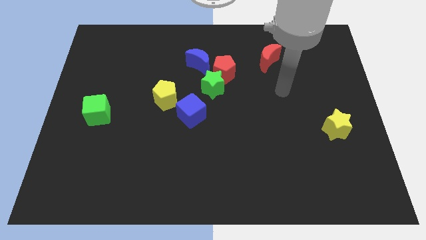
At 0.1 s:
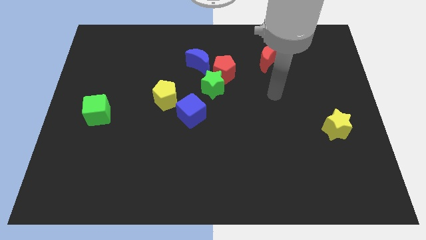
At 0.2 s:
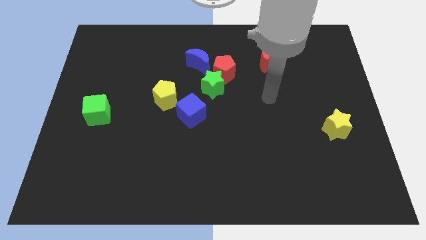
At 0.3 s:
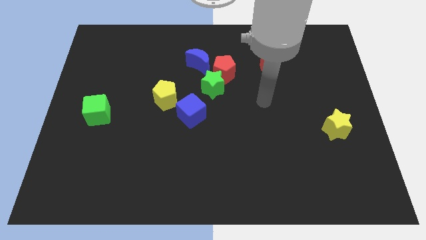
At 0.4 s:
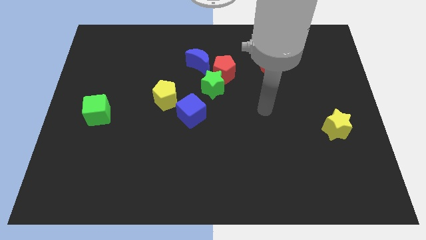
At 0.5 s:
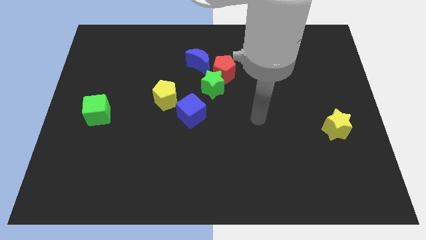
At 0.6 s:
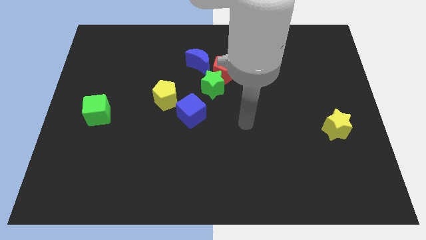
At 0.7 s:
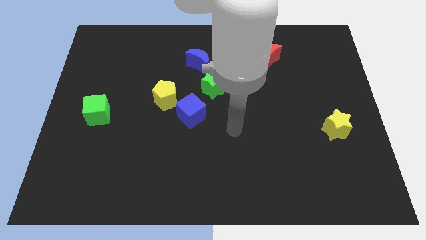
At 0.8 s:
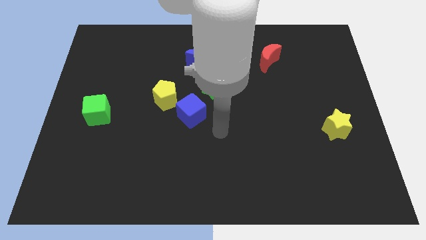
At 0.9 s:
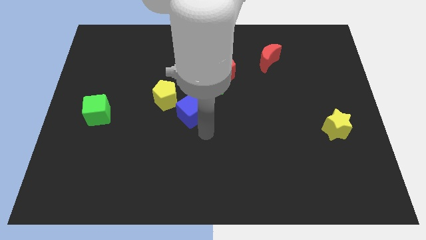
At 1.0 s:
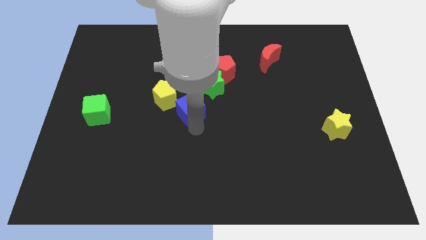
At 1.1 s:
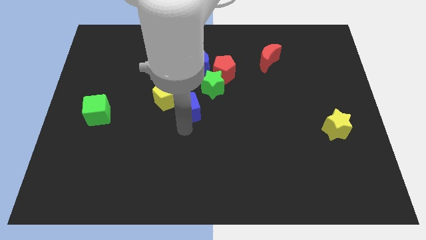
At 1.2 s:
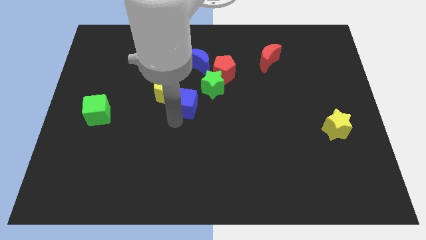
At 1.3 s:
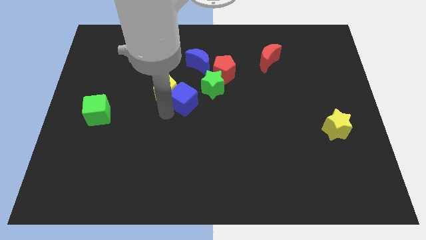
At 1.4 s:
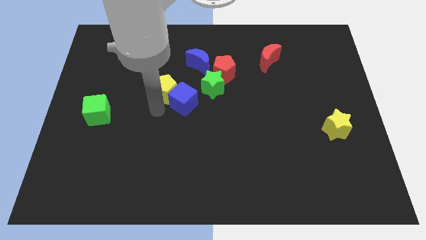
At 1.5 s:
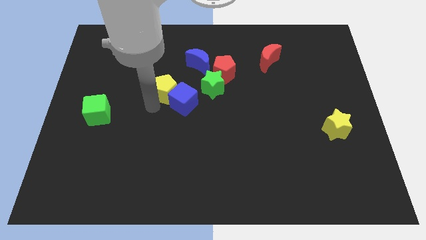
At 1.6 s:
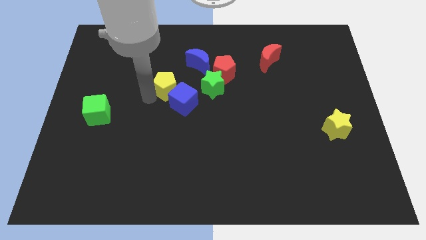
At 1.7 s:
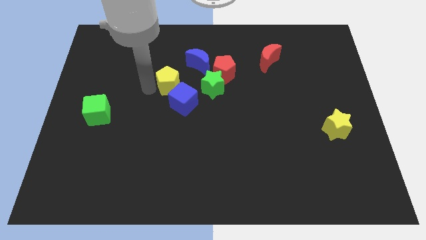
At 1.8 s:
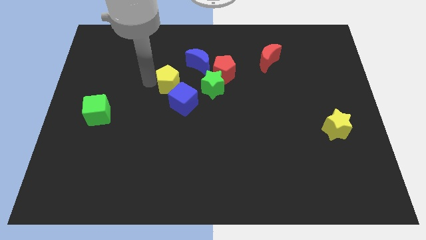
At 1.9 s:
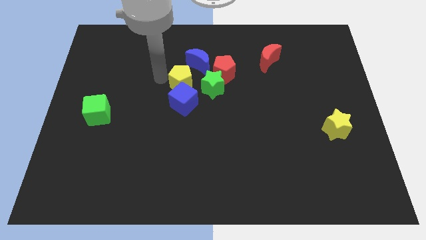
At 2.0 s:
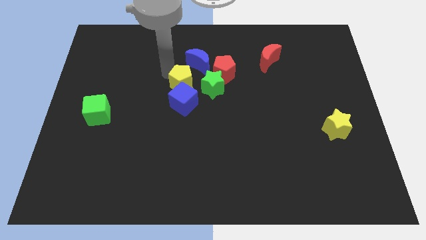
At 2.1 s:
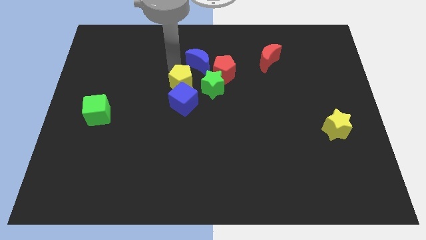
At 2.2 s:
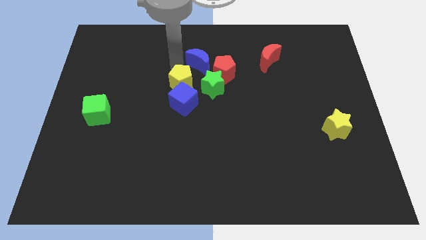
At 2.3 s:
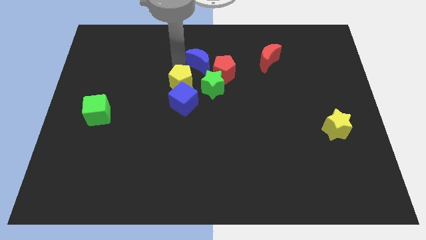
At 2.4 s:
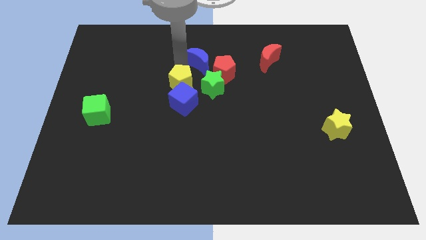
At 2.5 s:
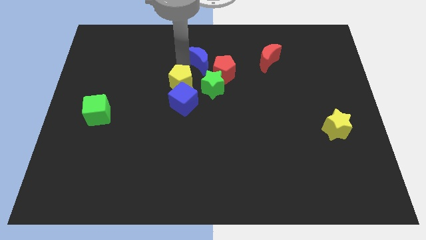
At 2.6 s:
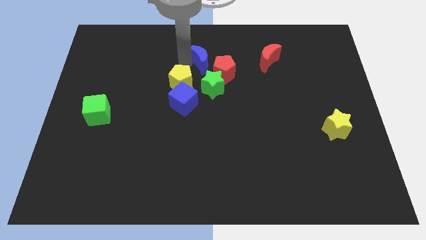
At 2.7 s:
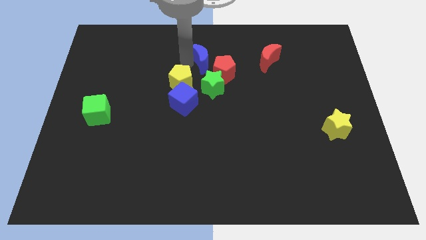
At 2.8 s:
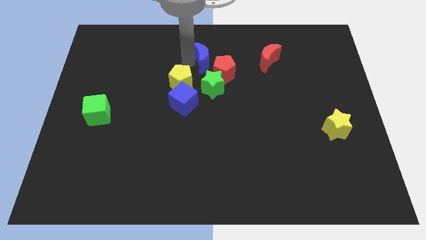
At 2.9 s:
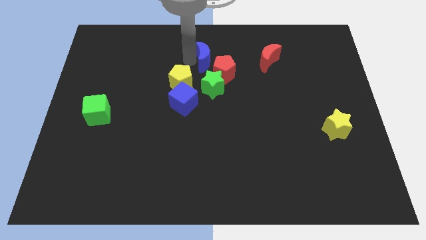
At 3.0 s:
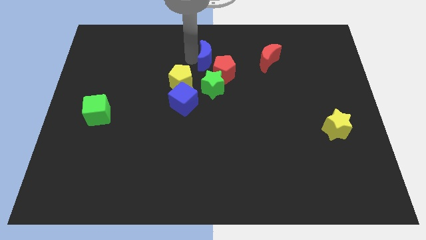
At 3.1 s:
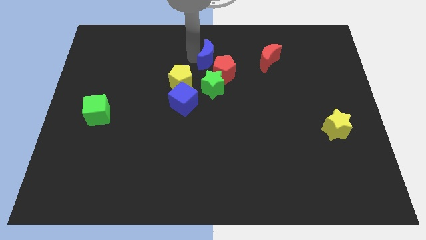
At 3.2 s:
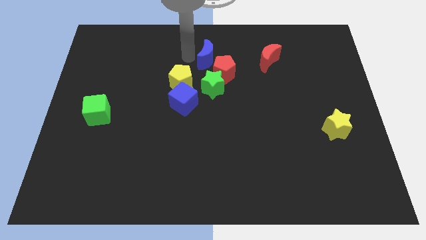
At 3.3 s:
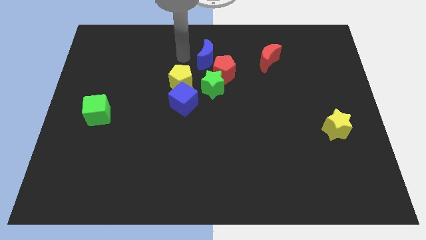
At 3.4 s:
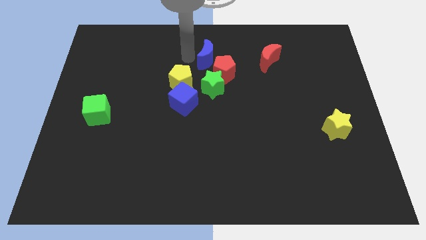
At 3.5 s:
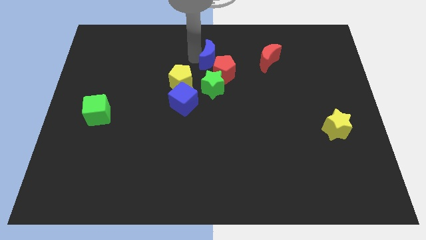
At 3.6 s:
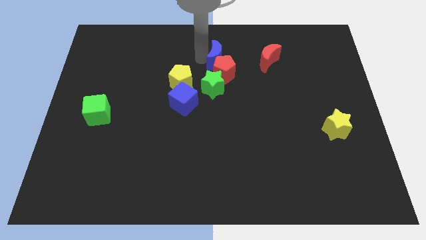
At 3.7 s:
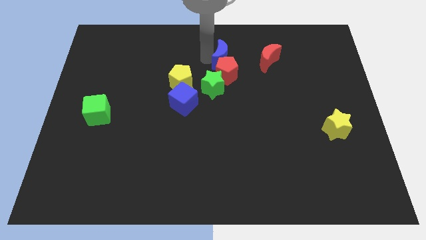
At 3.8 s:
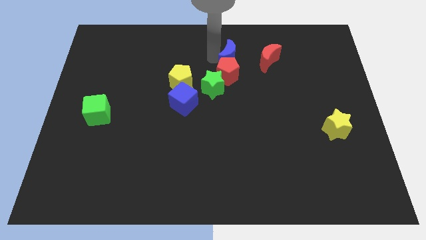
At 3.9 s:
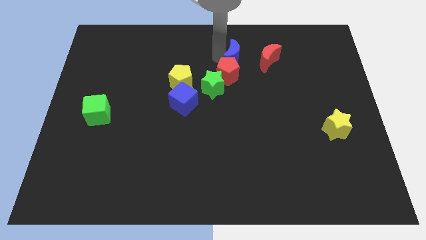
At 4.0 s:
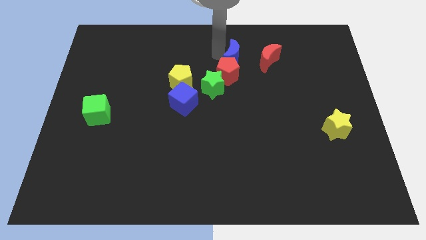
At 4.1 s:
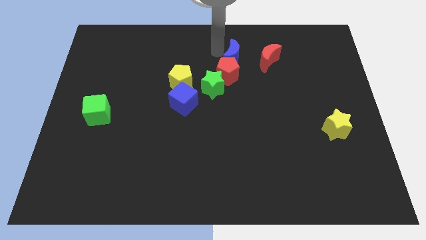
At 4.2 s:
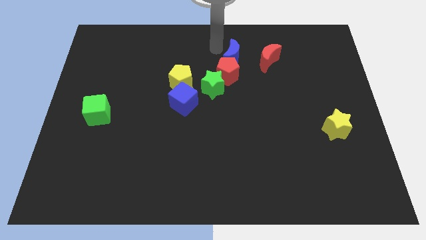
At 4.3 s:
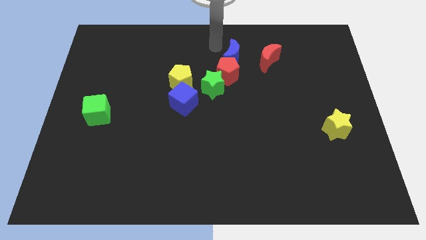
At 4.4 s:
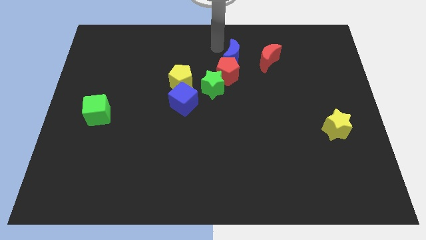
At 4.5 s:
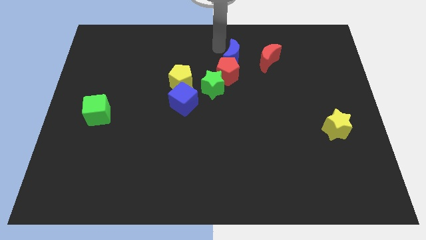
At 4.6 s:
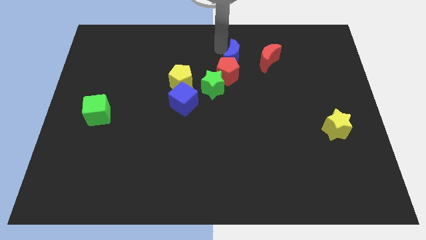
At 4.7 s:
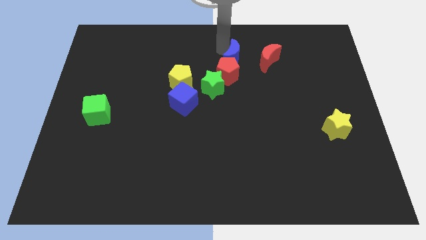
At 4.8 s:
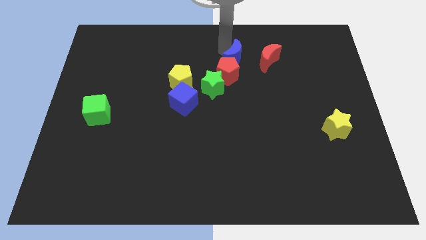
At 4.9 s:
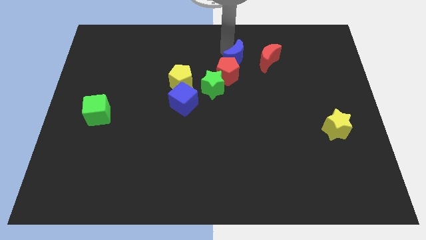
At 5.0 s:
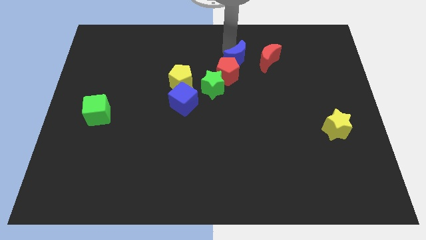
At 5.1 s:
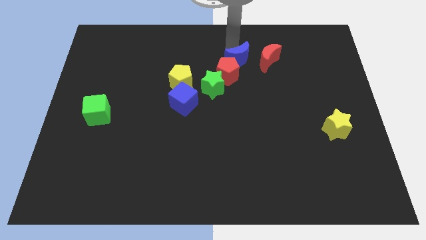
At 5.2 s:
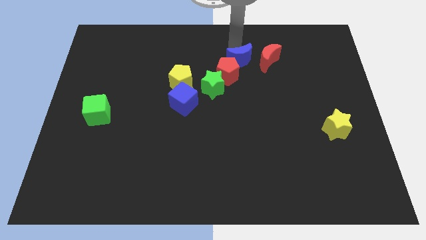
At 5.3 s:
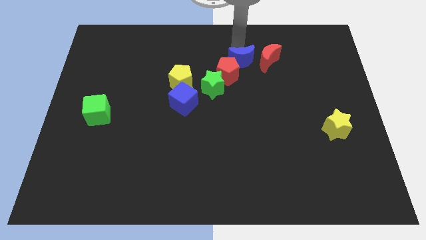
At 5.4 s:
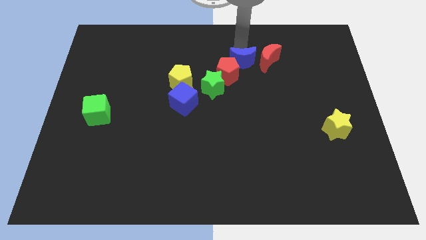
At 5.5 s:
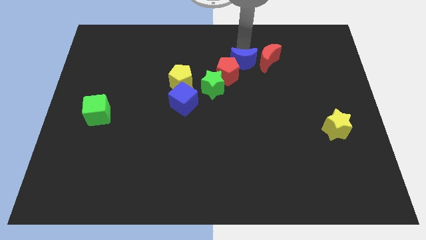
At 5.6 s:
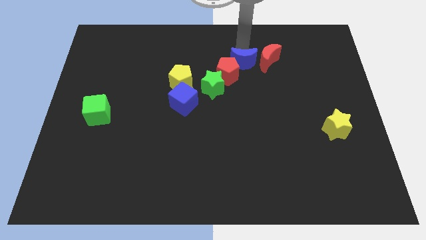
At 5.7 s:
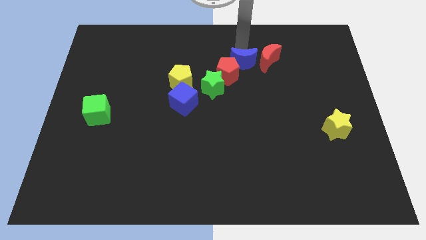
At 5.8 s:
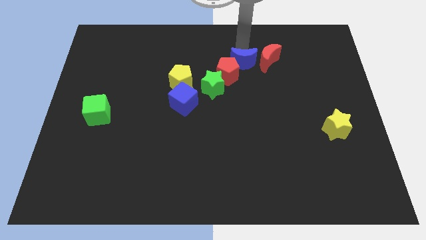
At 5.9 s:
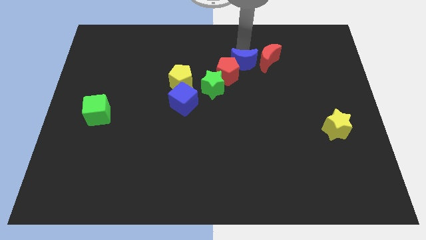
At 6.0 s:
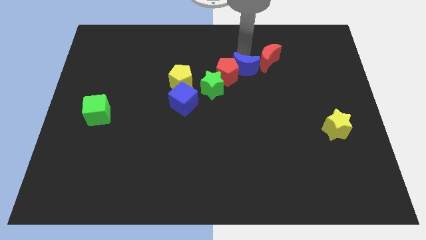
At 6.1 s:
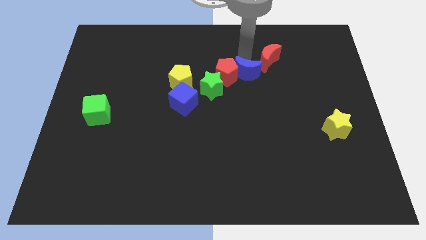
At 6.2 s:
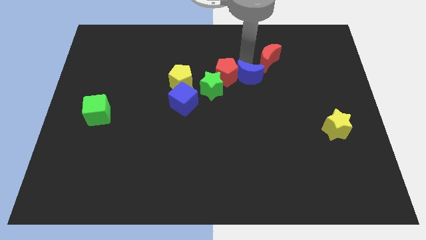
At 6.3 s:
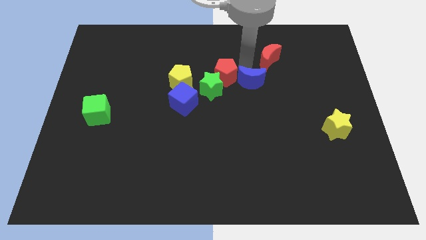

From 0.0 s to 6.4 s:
slide the blue moon to the bottom side of the red moon

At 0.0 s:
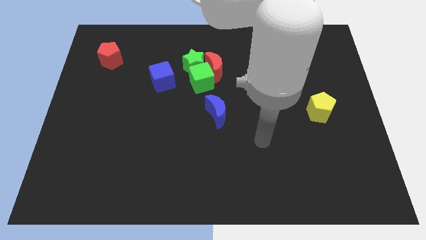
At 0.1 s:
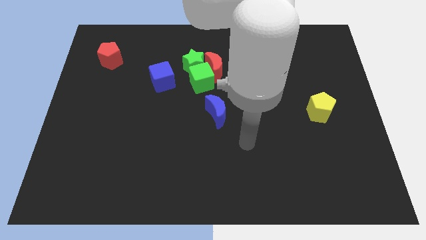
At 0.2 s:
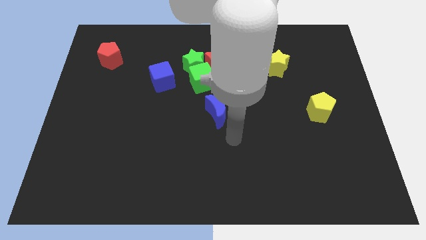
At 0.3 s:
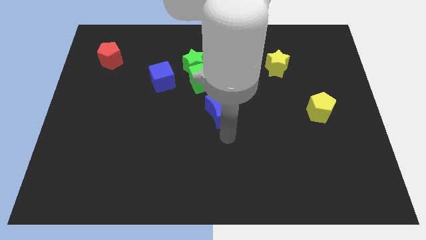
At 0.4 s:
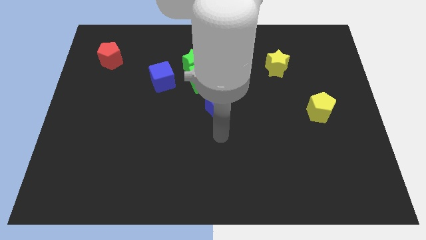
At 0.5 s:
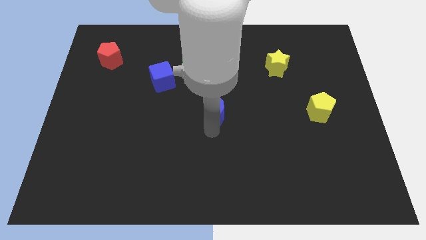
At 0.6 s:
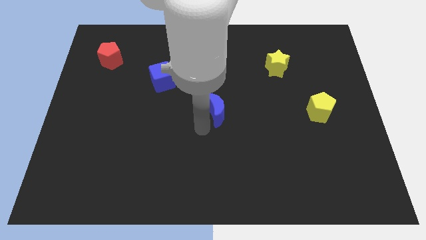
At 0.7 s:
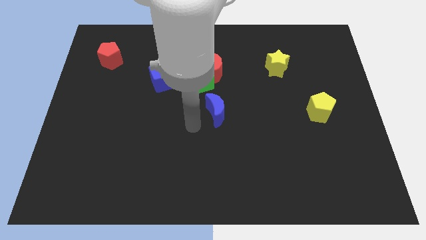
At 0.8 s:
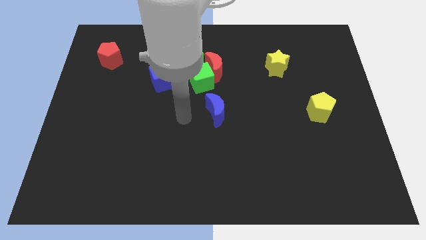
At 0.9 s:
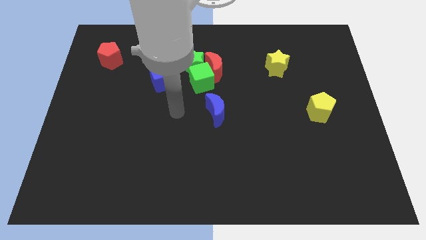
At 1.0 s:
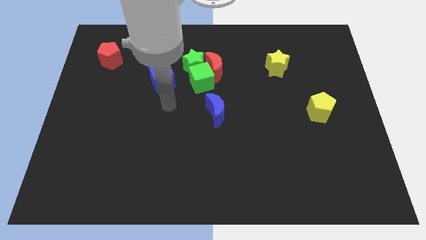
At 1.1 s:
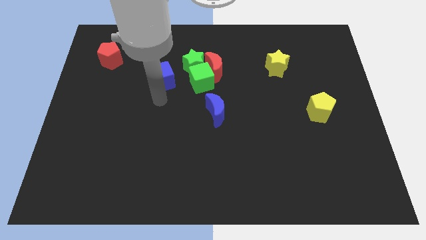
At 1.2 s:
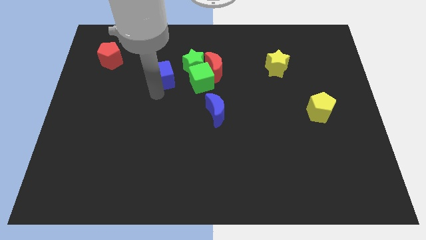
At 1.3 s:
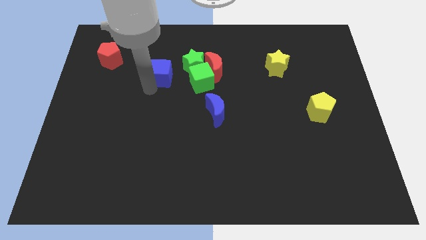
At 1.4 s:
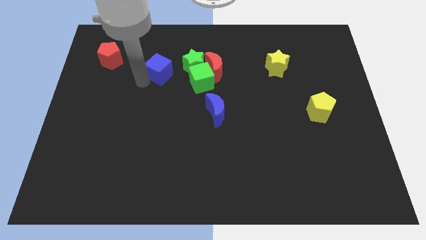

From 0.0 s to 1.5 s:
move the red pentagon to the left side of the blue cube
